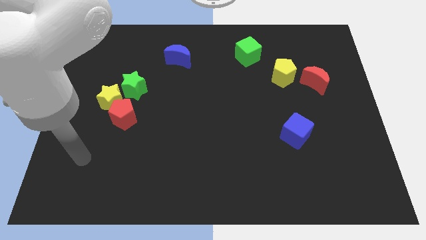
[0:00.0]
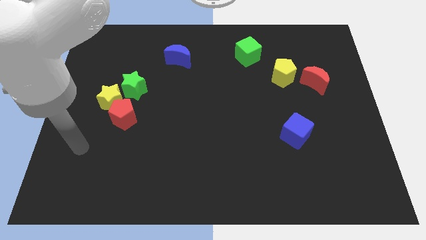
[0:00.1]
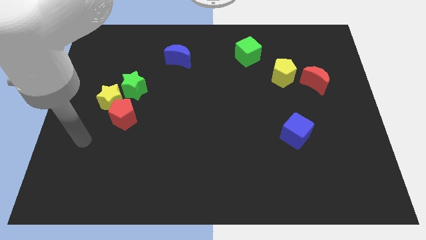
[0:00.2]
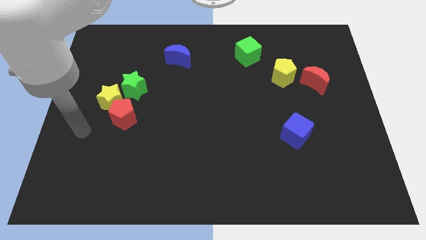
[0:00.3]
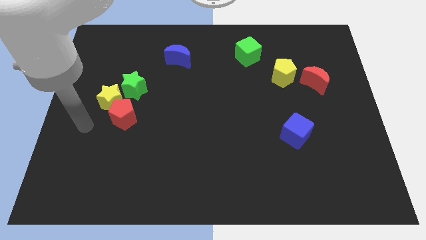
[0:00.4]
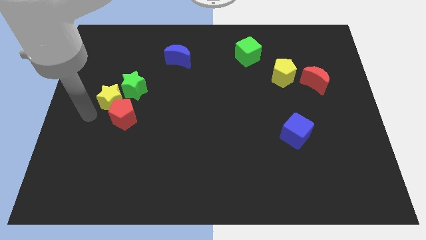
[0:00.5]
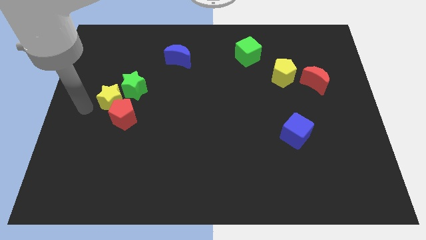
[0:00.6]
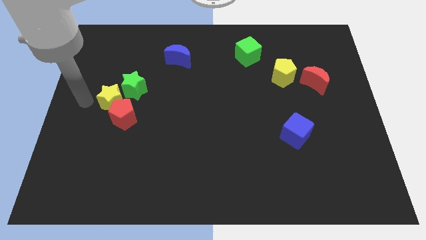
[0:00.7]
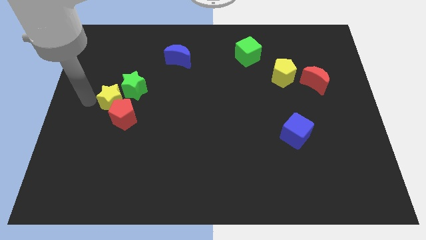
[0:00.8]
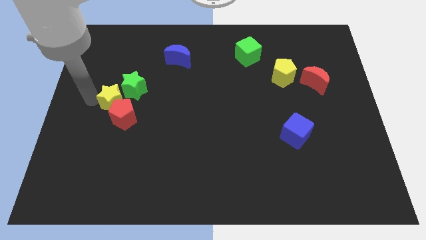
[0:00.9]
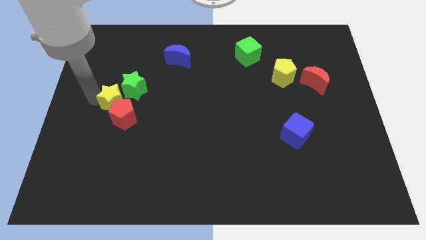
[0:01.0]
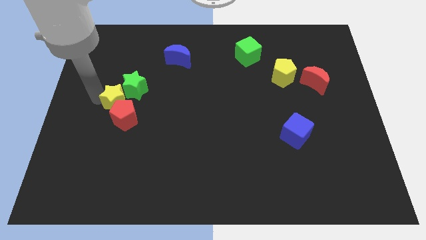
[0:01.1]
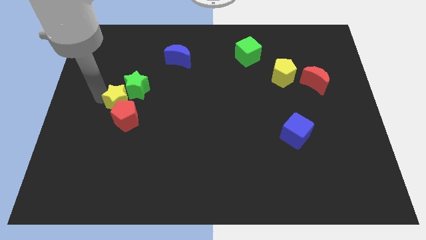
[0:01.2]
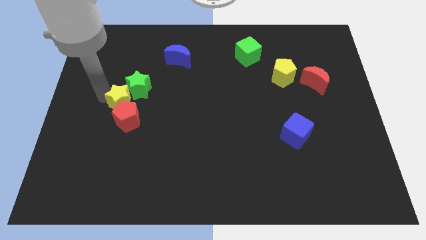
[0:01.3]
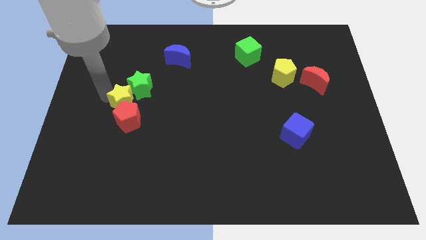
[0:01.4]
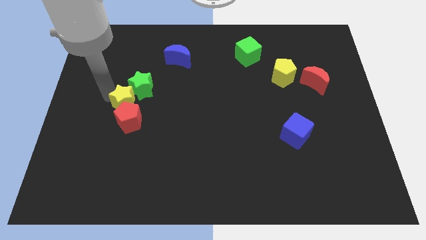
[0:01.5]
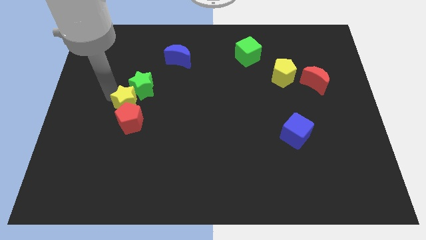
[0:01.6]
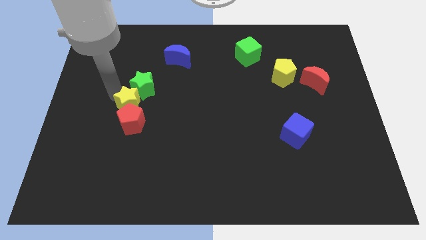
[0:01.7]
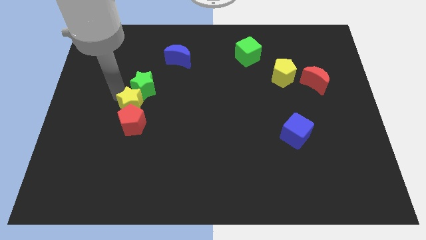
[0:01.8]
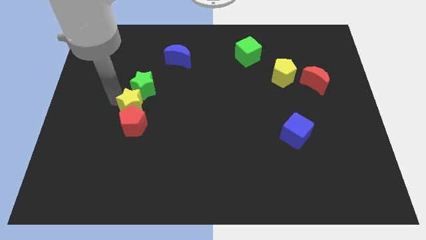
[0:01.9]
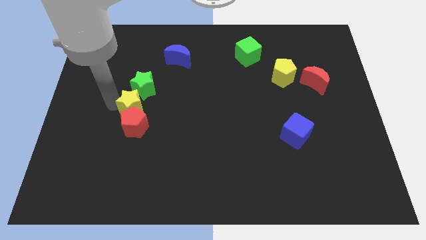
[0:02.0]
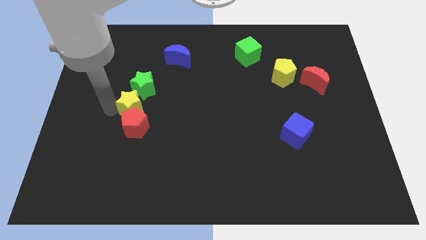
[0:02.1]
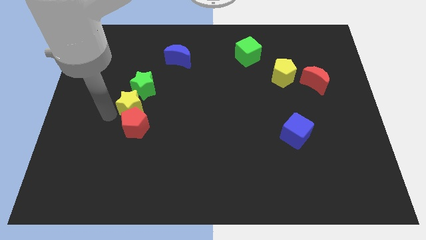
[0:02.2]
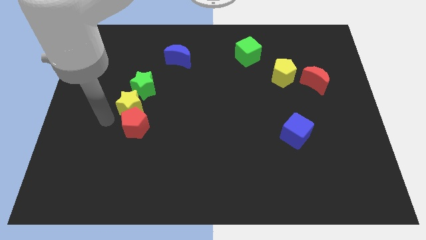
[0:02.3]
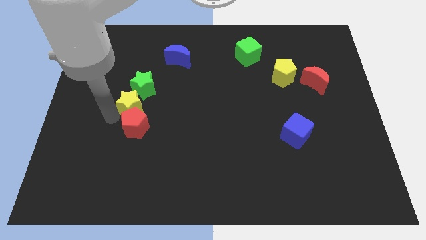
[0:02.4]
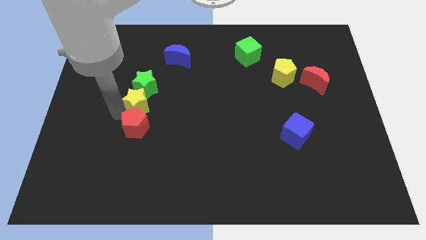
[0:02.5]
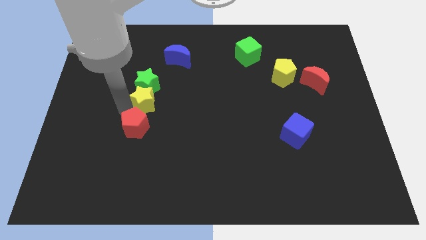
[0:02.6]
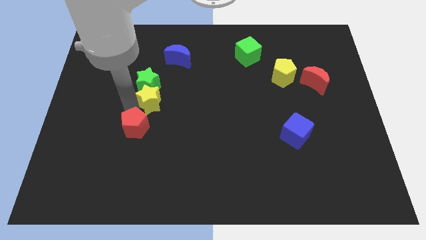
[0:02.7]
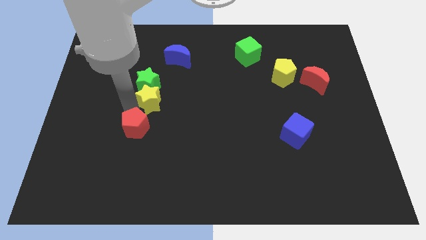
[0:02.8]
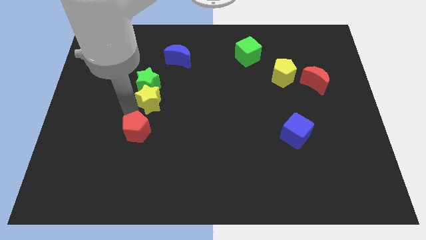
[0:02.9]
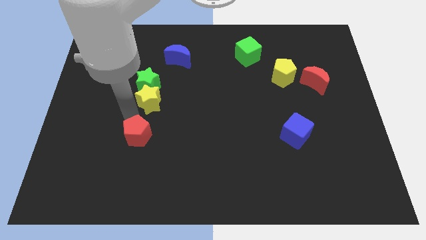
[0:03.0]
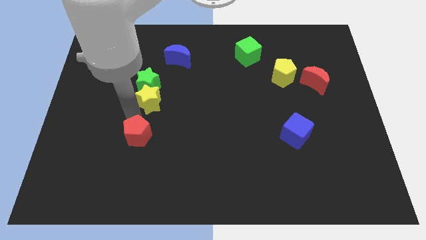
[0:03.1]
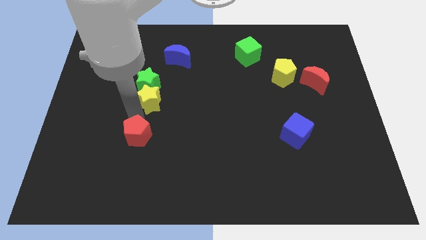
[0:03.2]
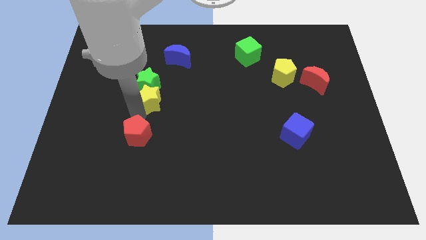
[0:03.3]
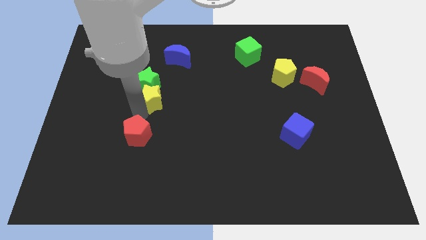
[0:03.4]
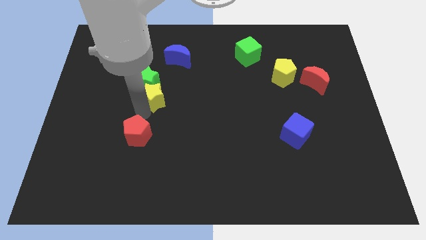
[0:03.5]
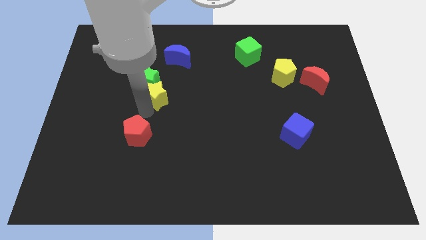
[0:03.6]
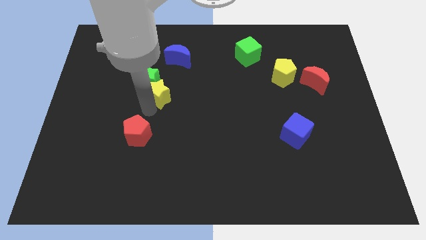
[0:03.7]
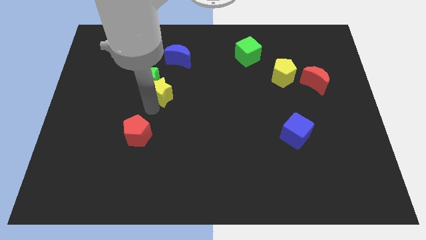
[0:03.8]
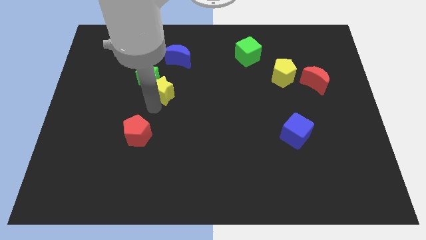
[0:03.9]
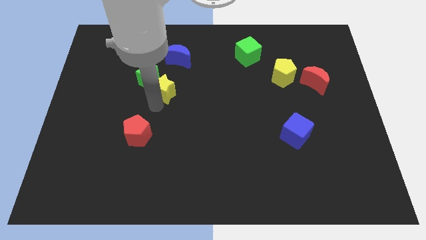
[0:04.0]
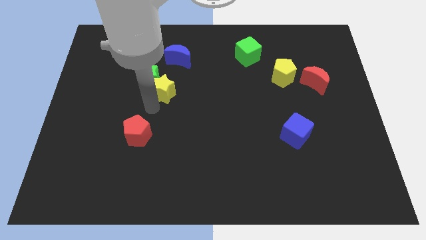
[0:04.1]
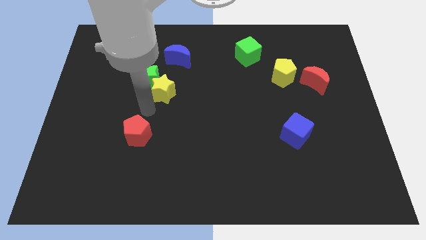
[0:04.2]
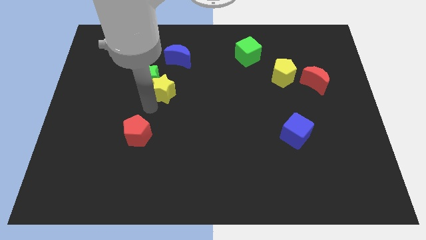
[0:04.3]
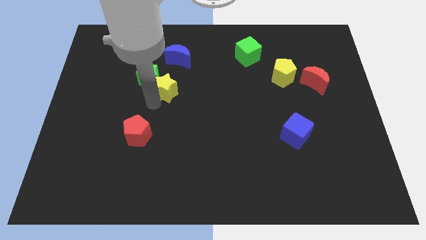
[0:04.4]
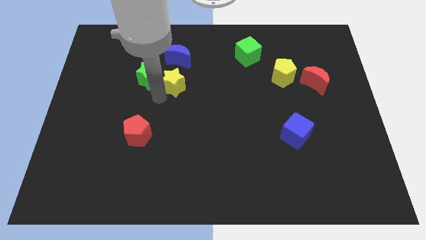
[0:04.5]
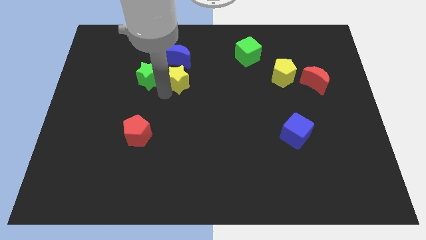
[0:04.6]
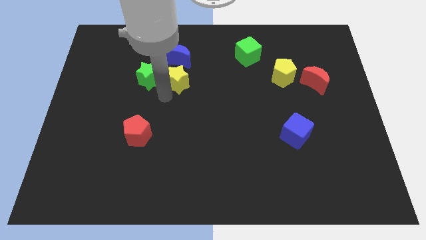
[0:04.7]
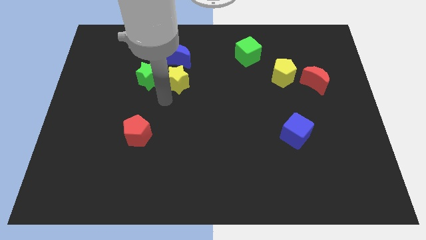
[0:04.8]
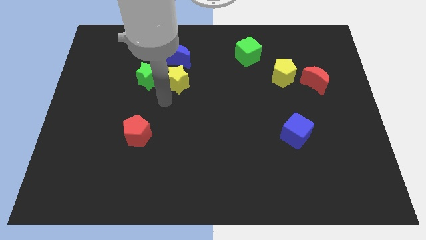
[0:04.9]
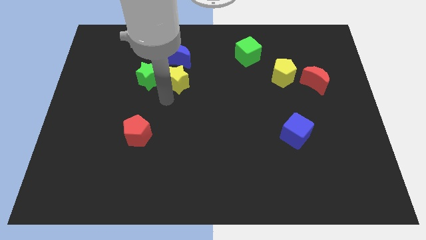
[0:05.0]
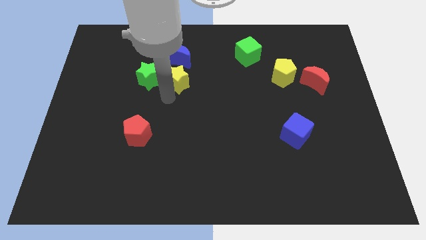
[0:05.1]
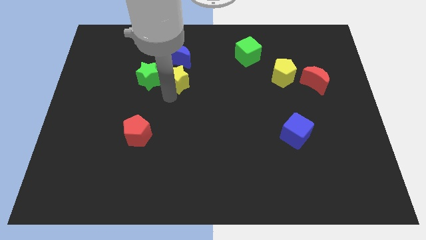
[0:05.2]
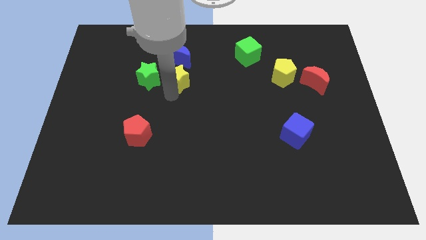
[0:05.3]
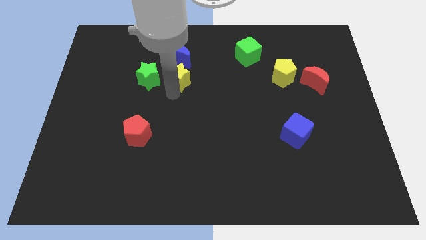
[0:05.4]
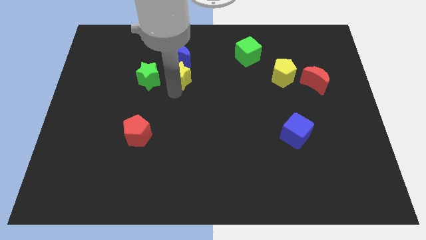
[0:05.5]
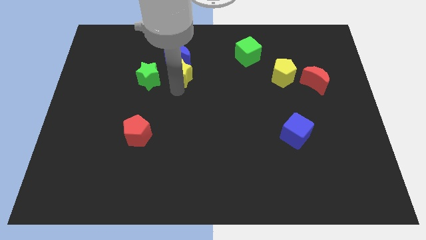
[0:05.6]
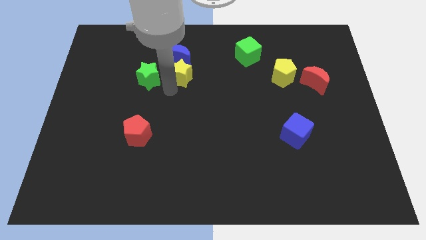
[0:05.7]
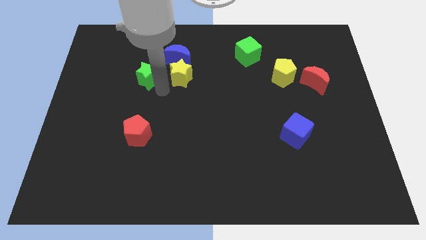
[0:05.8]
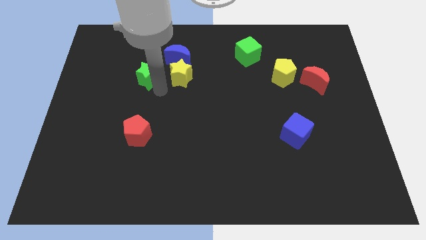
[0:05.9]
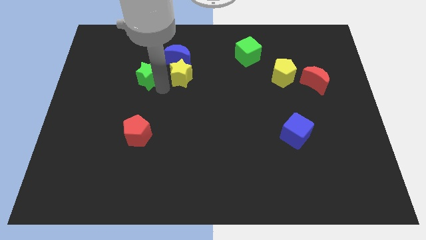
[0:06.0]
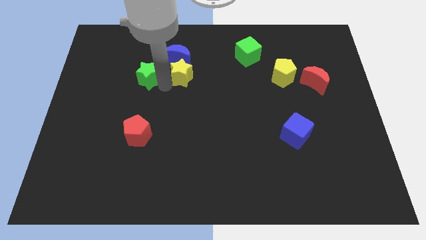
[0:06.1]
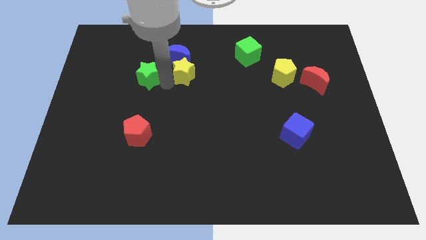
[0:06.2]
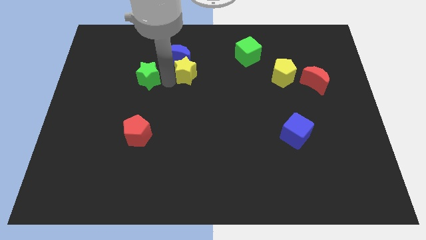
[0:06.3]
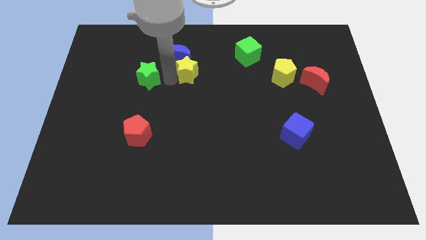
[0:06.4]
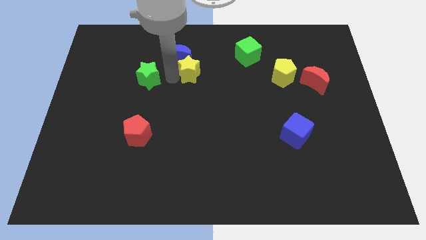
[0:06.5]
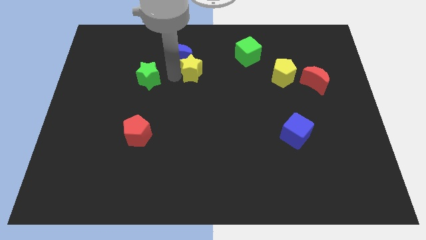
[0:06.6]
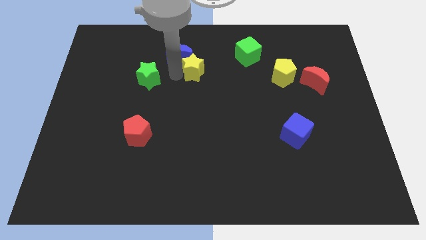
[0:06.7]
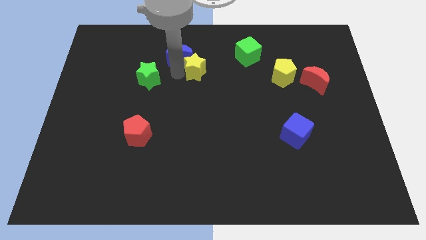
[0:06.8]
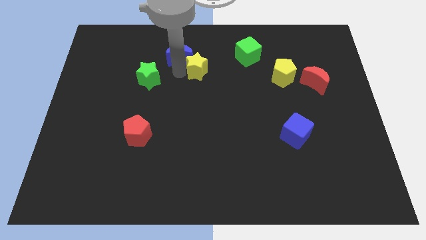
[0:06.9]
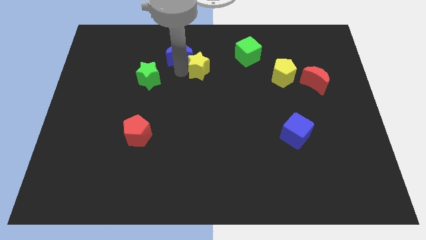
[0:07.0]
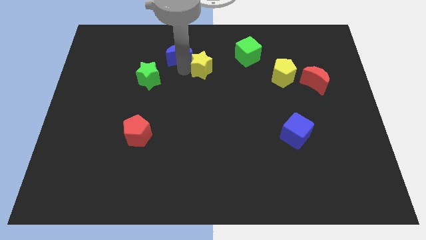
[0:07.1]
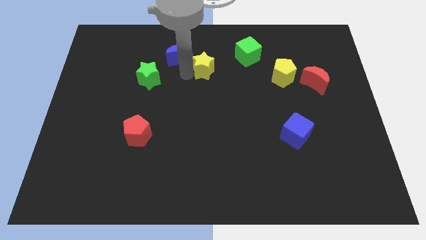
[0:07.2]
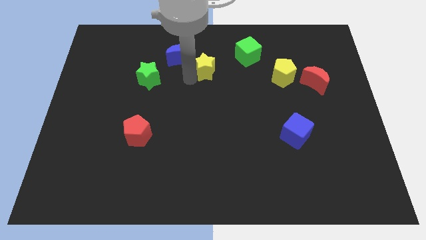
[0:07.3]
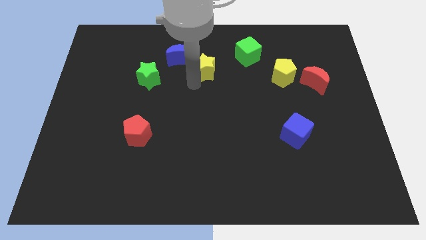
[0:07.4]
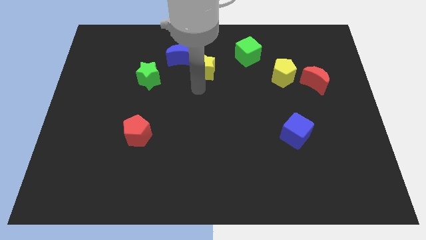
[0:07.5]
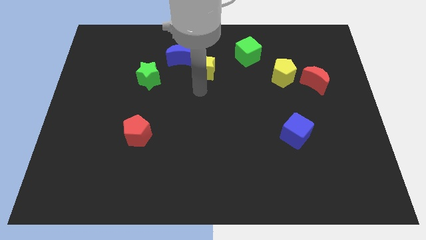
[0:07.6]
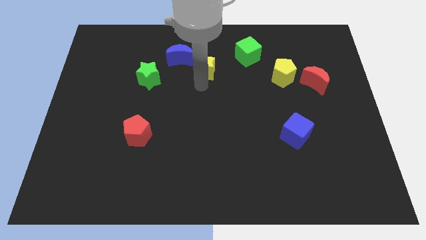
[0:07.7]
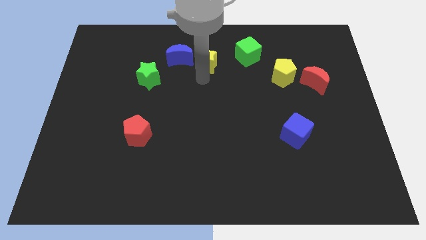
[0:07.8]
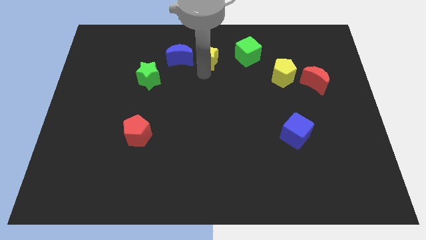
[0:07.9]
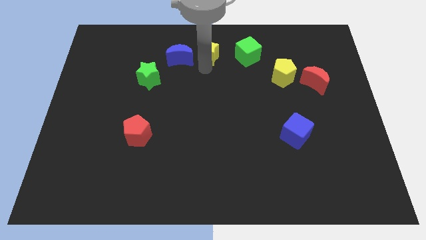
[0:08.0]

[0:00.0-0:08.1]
put the yellow star to the top
